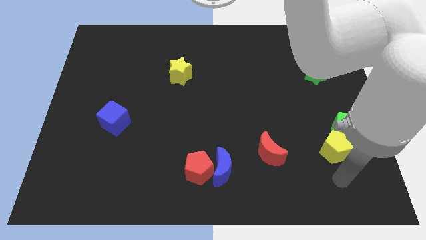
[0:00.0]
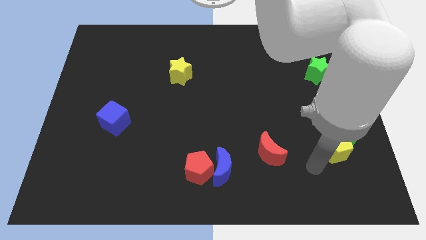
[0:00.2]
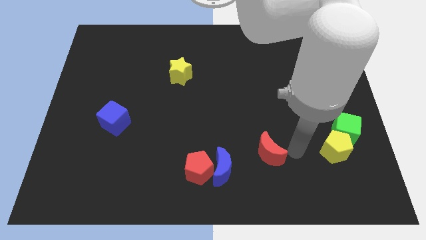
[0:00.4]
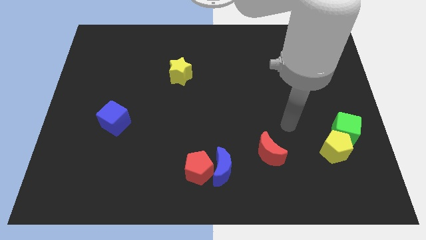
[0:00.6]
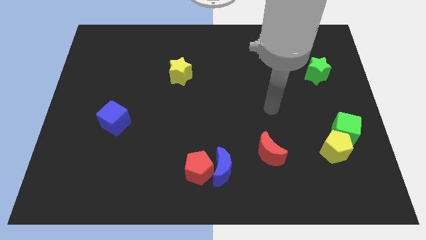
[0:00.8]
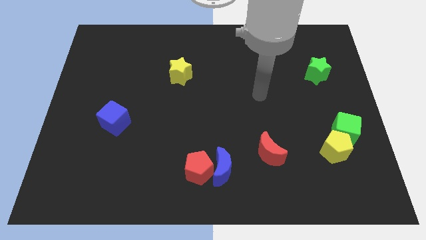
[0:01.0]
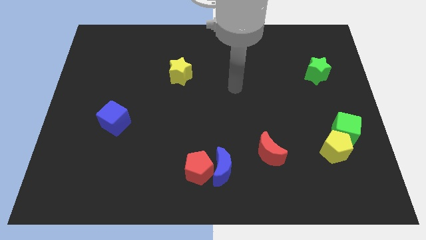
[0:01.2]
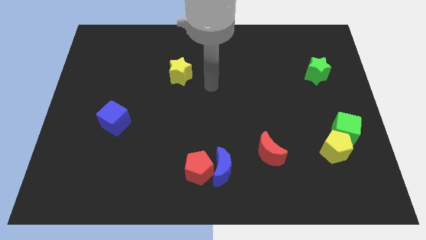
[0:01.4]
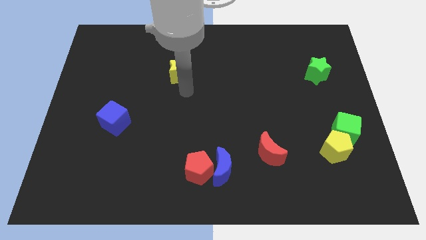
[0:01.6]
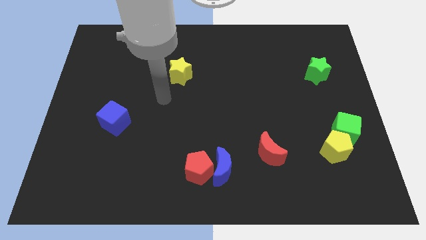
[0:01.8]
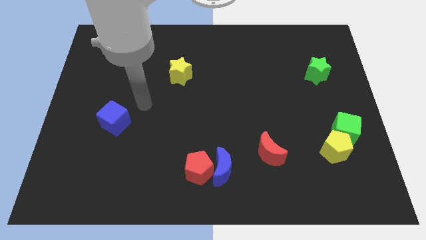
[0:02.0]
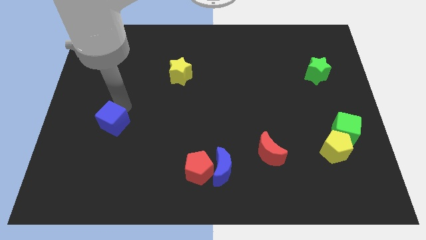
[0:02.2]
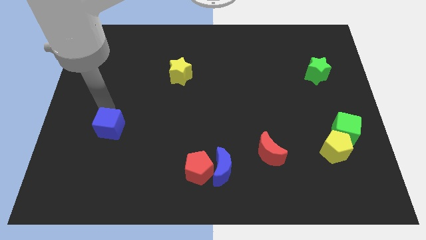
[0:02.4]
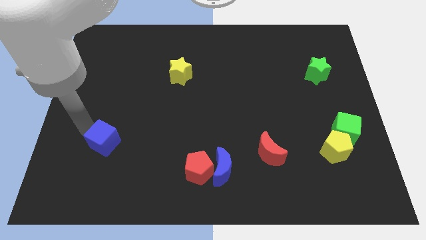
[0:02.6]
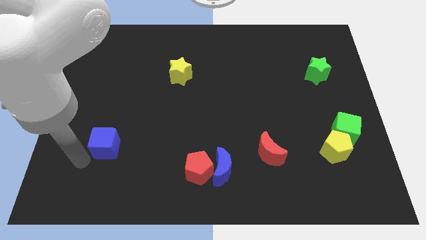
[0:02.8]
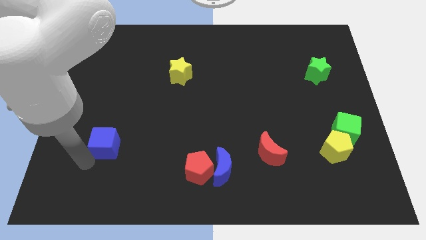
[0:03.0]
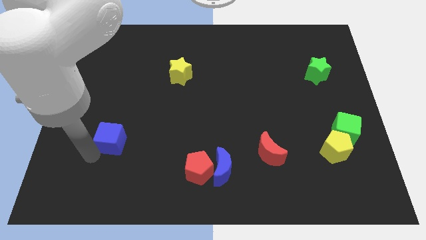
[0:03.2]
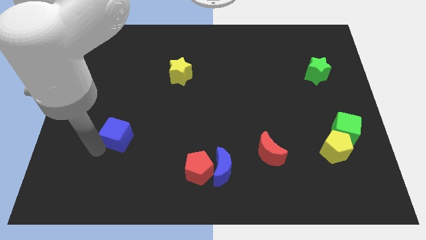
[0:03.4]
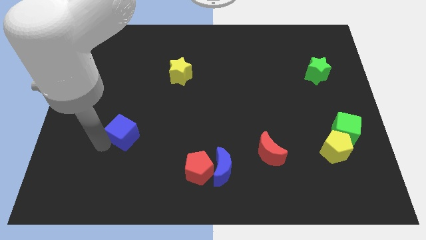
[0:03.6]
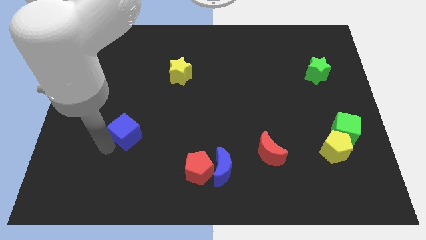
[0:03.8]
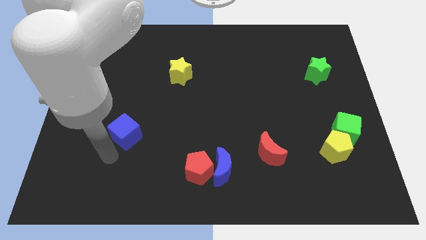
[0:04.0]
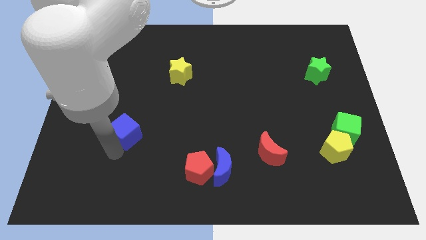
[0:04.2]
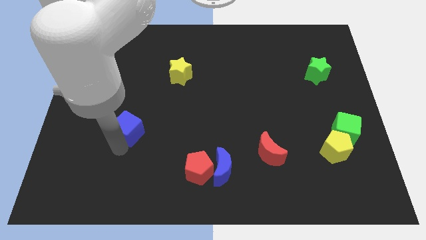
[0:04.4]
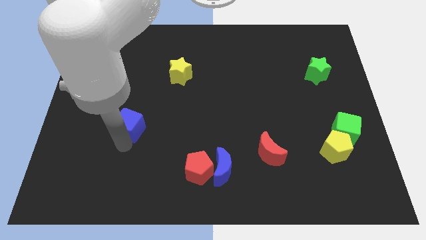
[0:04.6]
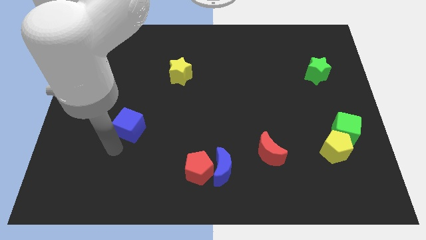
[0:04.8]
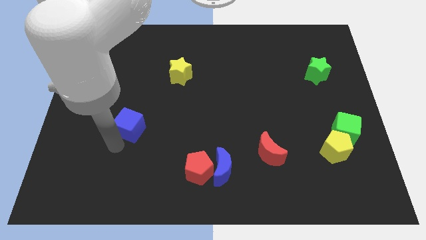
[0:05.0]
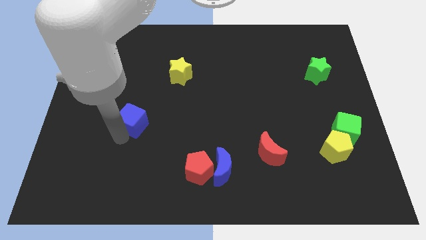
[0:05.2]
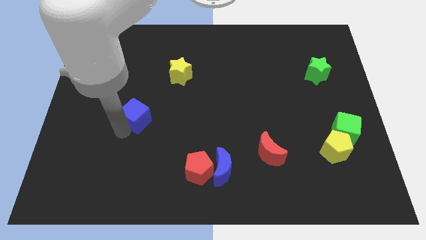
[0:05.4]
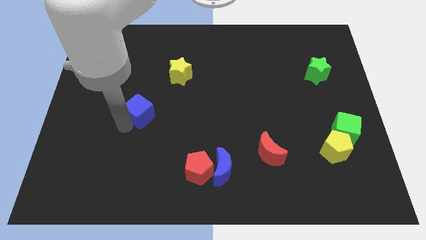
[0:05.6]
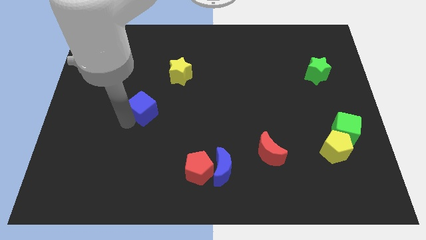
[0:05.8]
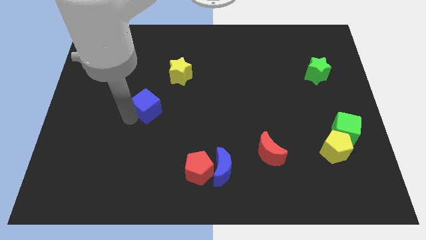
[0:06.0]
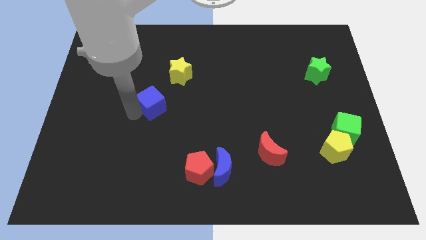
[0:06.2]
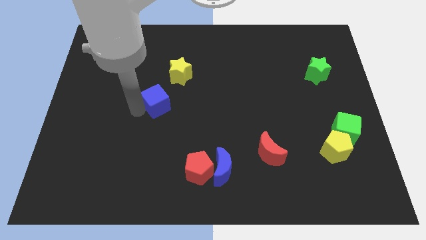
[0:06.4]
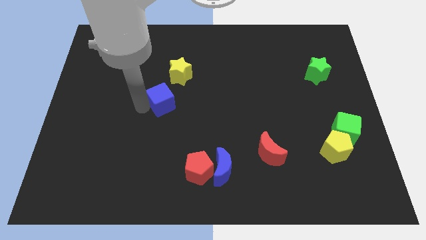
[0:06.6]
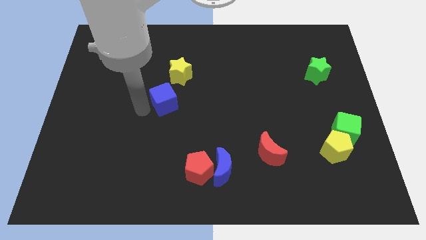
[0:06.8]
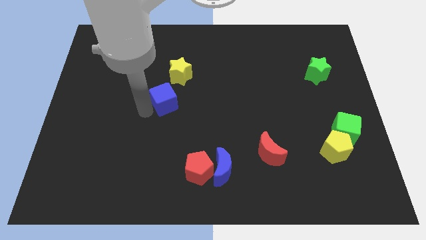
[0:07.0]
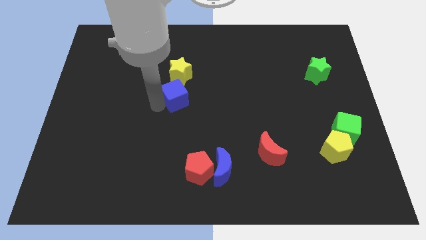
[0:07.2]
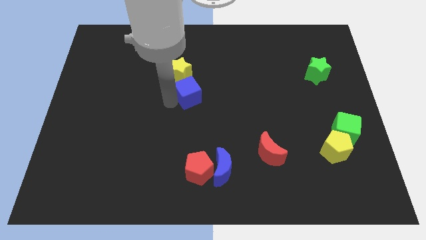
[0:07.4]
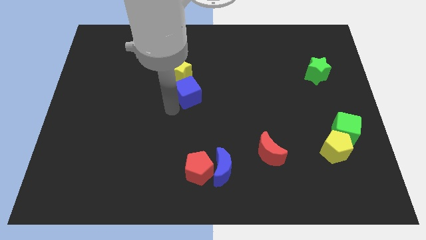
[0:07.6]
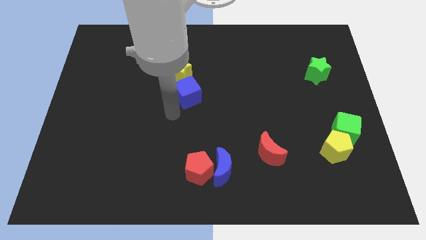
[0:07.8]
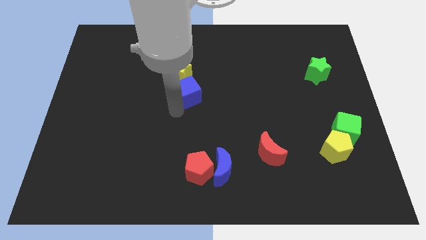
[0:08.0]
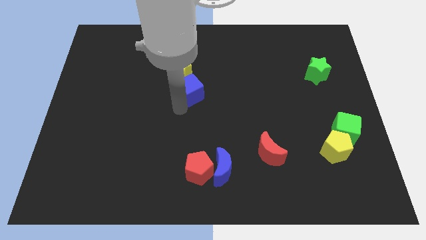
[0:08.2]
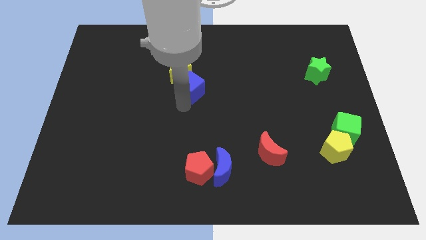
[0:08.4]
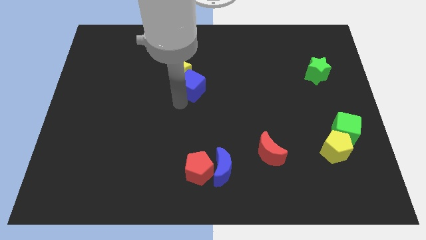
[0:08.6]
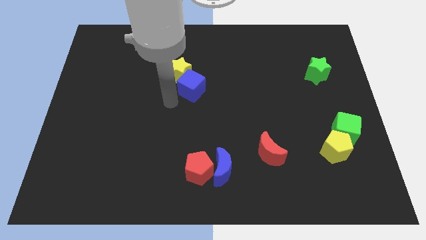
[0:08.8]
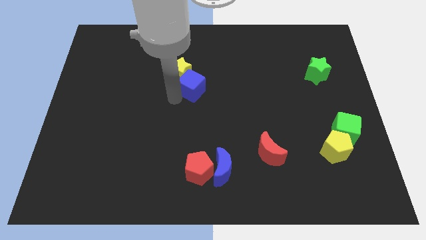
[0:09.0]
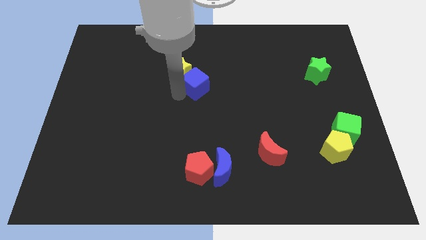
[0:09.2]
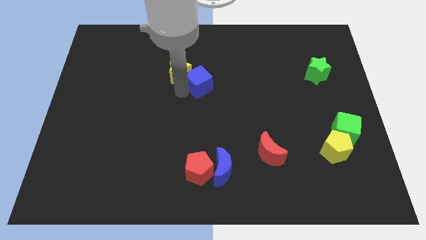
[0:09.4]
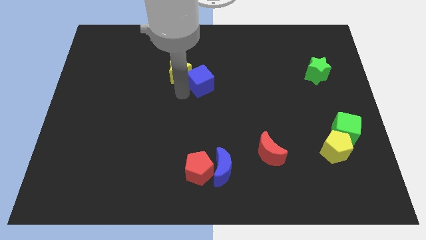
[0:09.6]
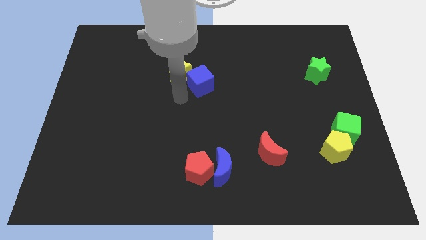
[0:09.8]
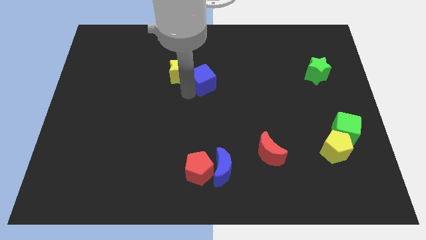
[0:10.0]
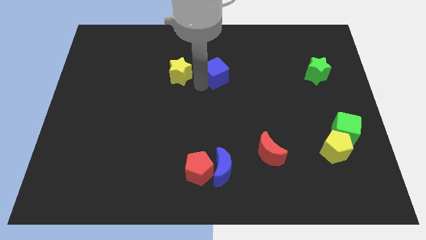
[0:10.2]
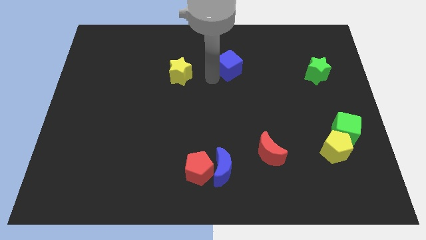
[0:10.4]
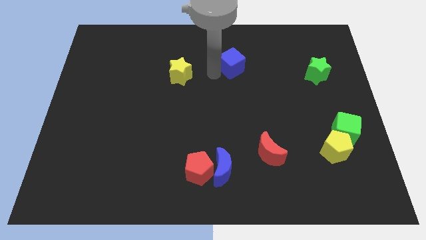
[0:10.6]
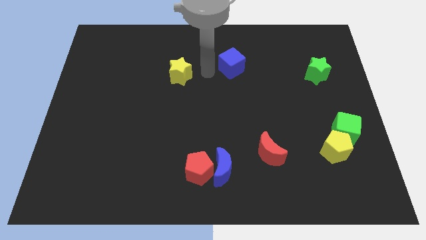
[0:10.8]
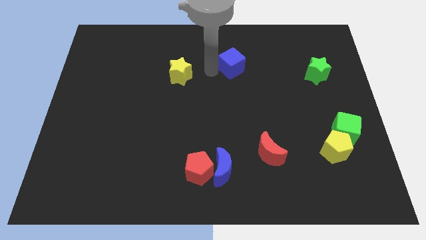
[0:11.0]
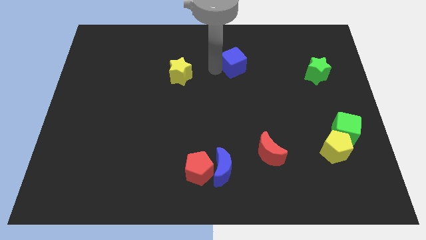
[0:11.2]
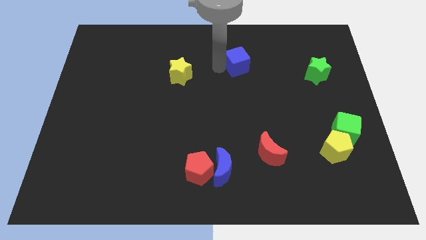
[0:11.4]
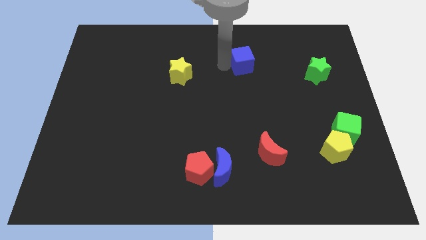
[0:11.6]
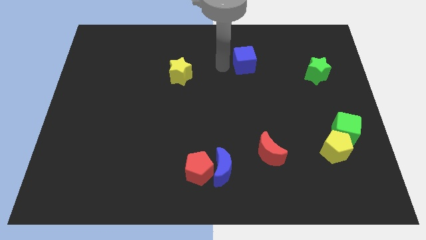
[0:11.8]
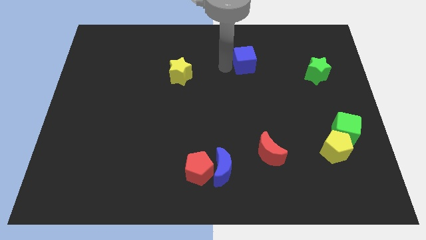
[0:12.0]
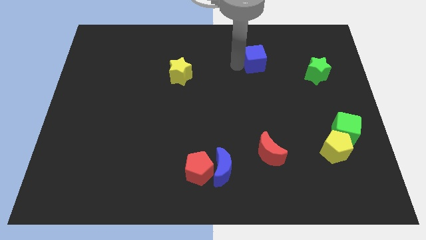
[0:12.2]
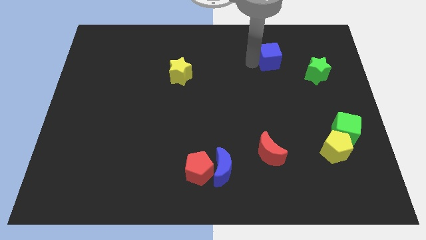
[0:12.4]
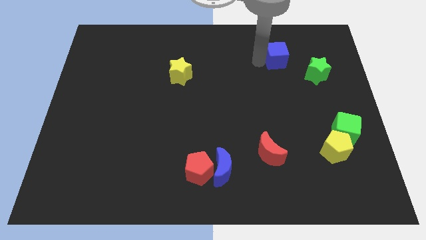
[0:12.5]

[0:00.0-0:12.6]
slide the blue cube diagonally up and to the left of the green star

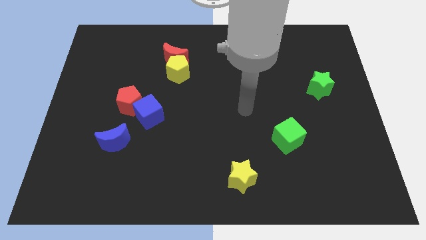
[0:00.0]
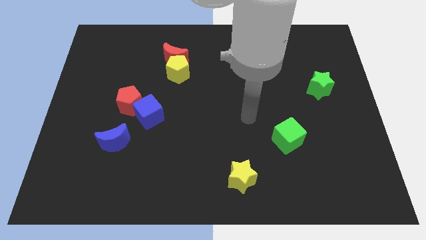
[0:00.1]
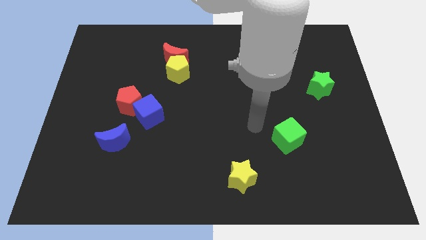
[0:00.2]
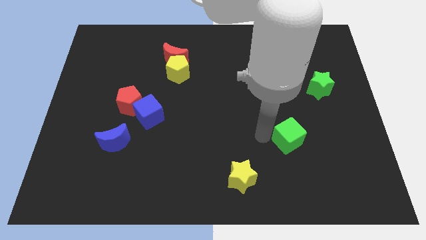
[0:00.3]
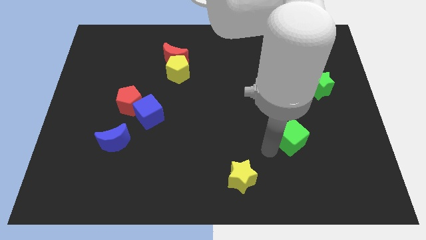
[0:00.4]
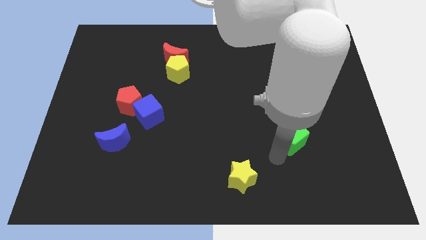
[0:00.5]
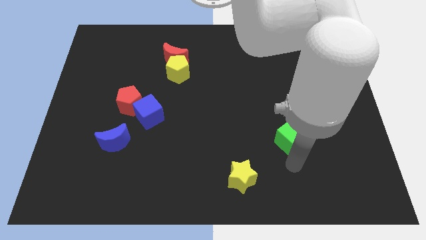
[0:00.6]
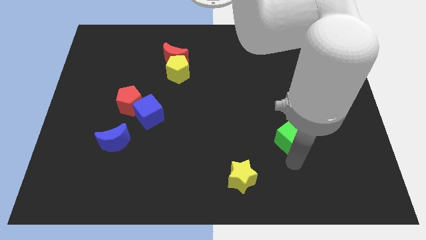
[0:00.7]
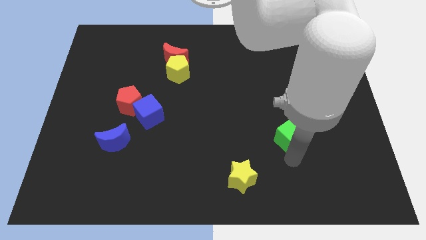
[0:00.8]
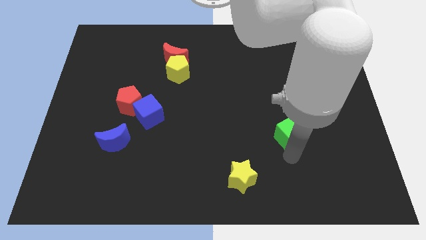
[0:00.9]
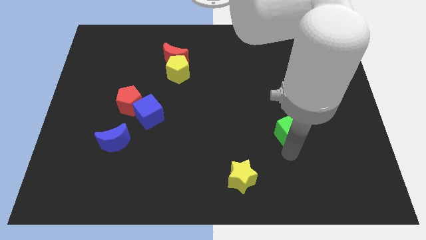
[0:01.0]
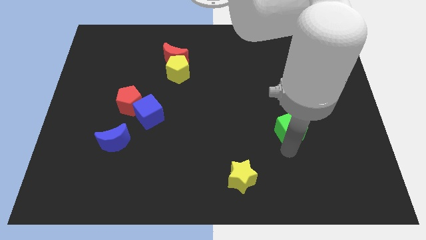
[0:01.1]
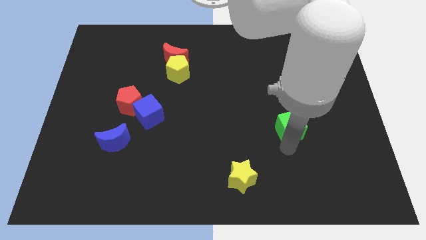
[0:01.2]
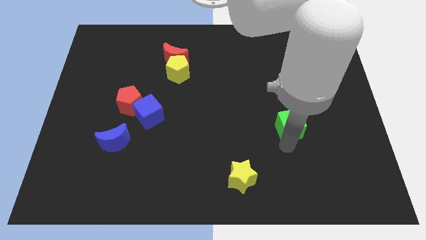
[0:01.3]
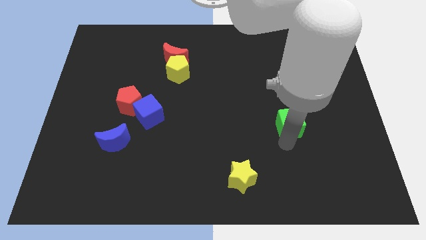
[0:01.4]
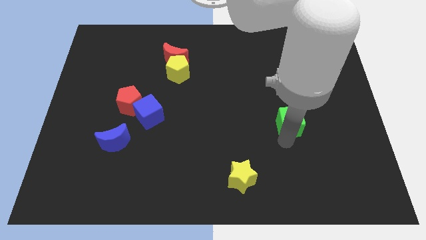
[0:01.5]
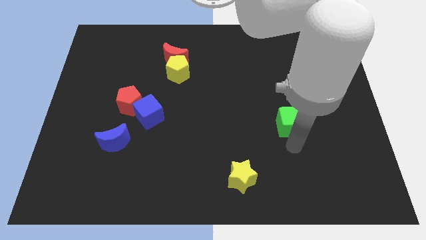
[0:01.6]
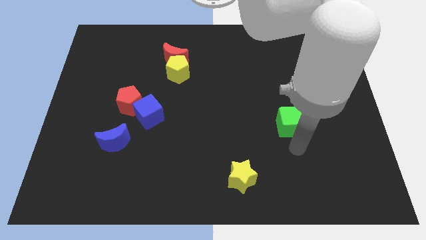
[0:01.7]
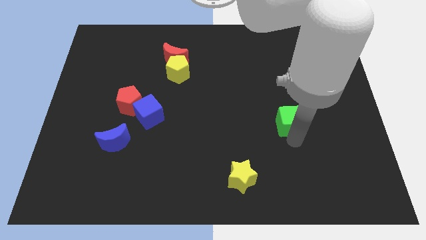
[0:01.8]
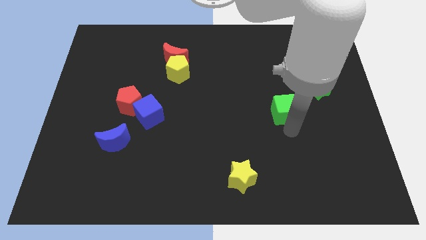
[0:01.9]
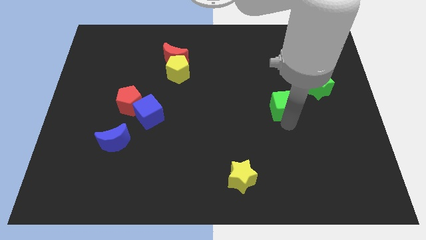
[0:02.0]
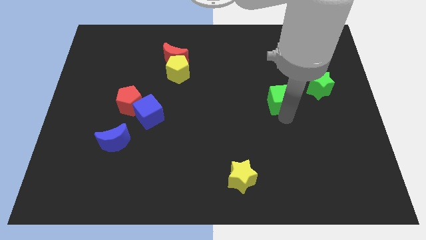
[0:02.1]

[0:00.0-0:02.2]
push the green cube to the left side of the green star
